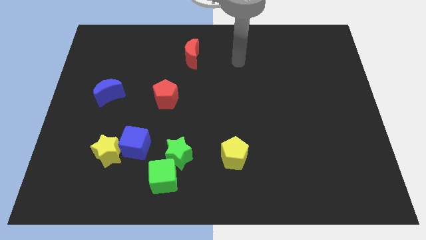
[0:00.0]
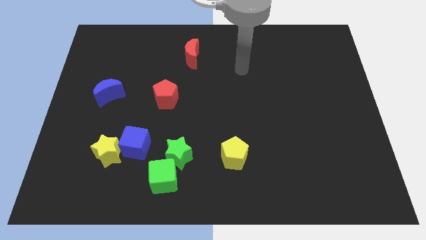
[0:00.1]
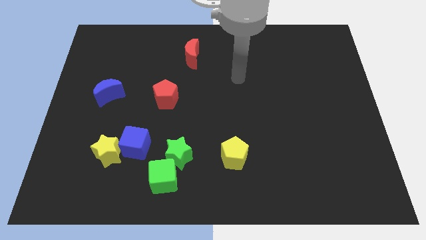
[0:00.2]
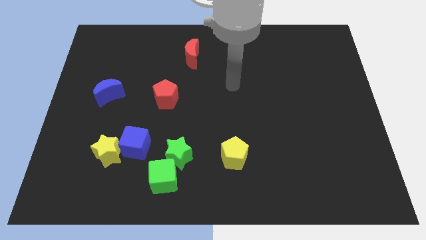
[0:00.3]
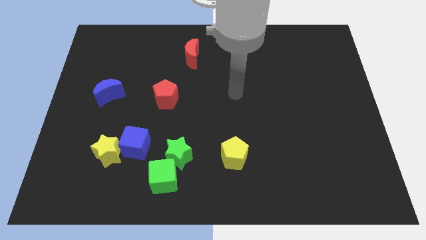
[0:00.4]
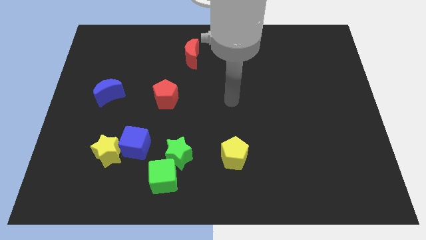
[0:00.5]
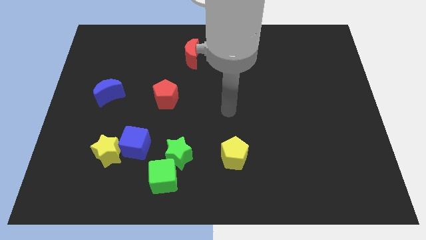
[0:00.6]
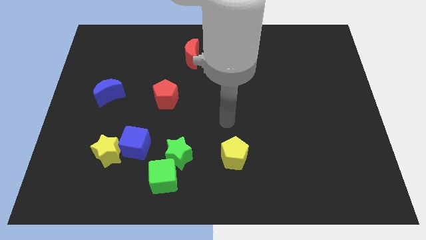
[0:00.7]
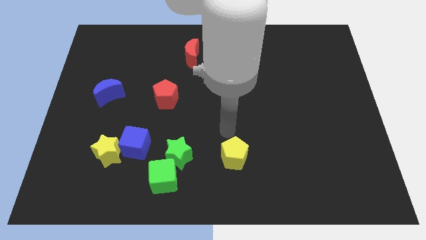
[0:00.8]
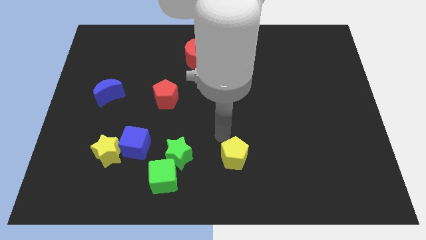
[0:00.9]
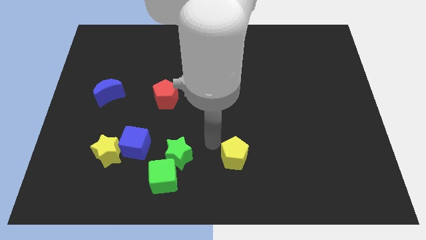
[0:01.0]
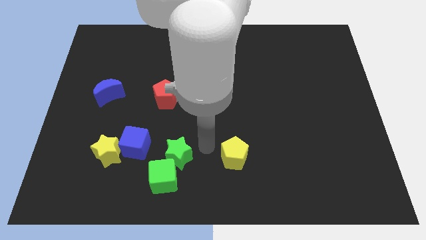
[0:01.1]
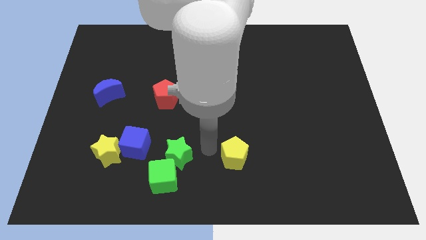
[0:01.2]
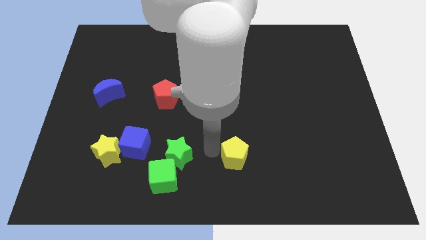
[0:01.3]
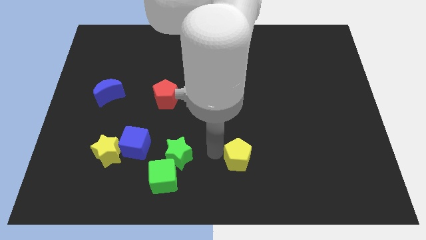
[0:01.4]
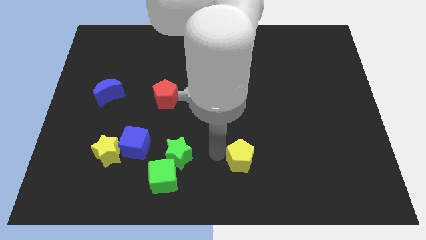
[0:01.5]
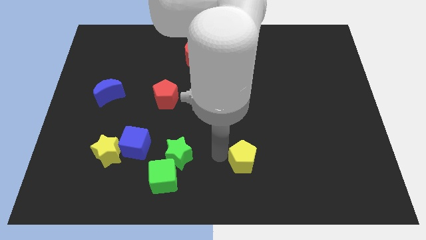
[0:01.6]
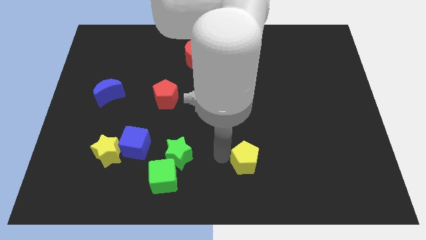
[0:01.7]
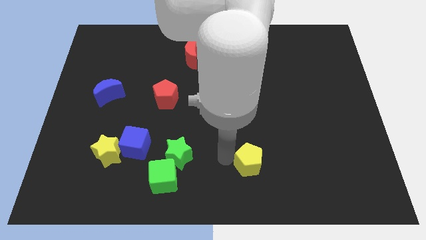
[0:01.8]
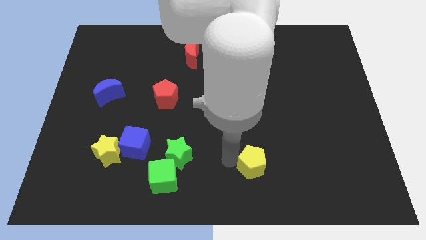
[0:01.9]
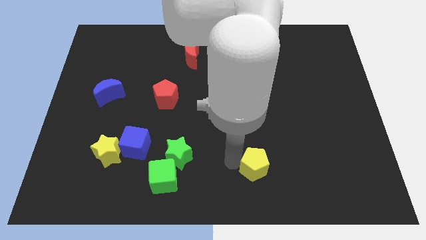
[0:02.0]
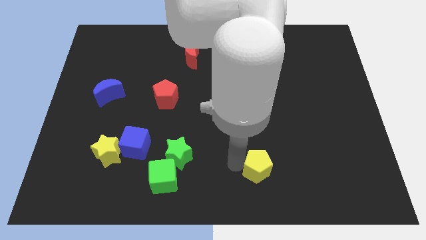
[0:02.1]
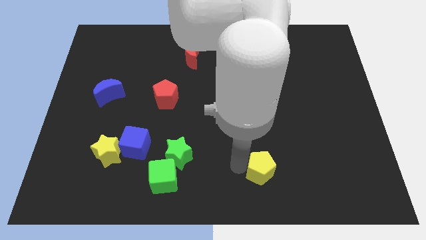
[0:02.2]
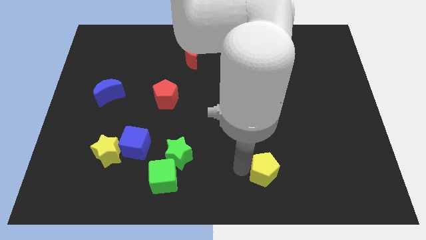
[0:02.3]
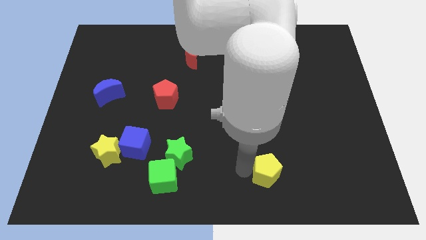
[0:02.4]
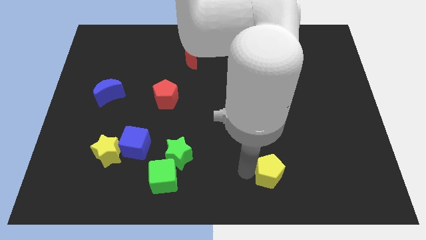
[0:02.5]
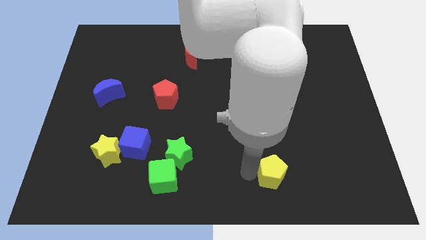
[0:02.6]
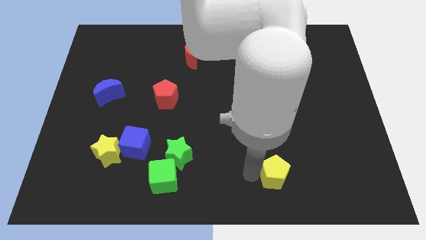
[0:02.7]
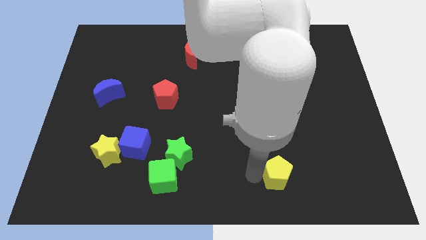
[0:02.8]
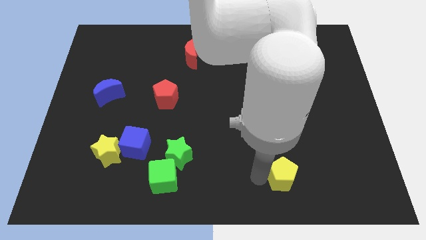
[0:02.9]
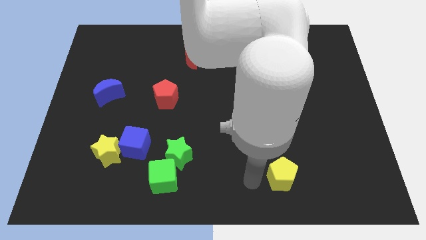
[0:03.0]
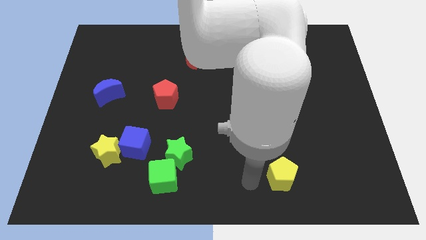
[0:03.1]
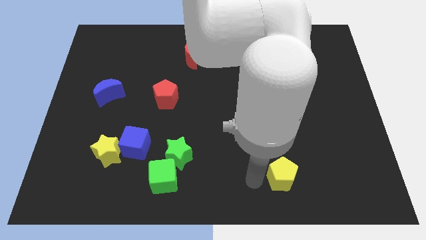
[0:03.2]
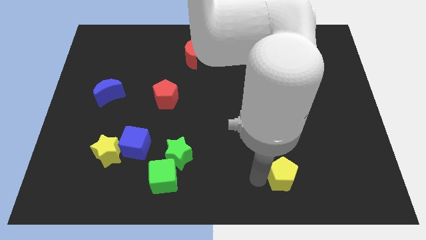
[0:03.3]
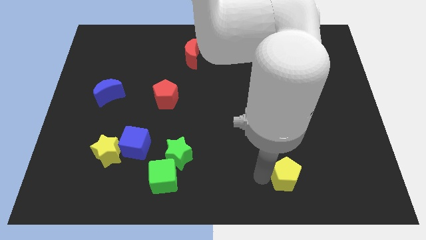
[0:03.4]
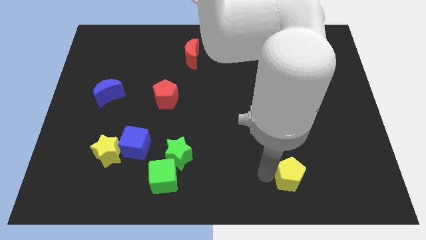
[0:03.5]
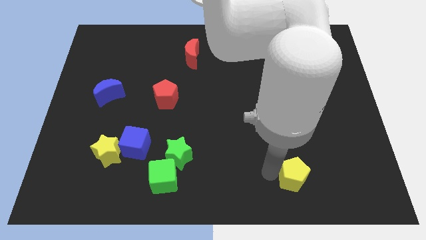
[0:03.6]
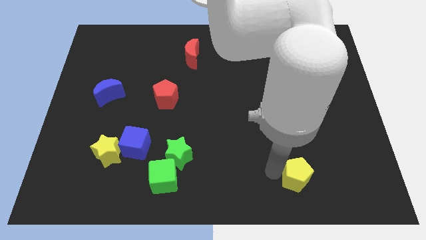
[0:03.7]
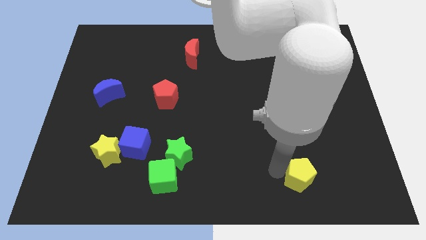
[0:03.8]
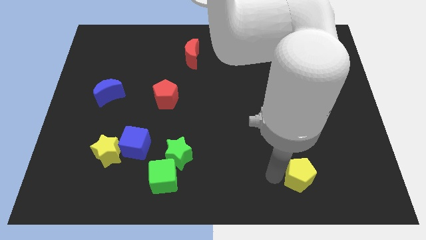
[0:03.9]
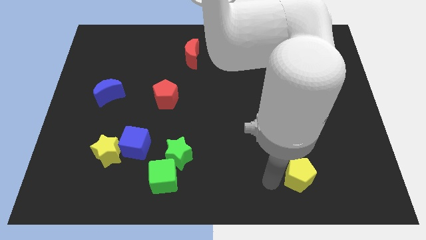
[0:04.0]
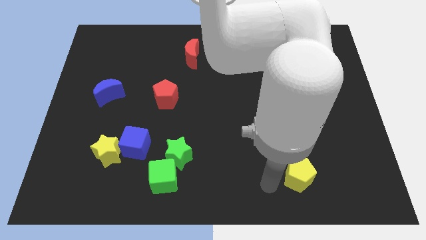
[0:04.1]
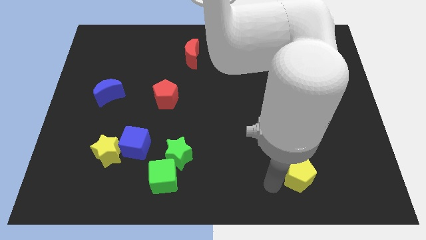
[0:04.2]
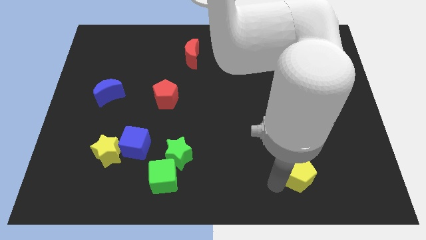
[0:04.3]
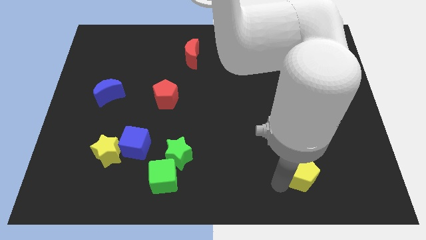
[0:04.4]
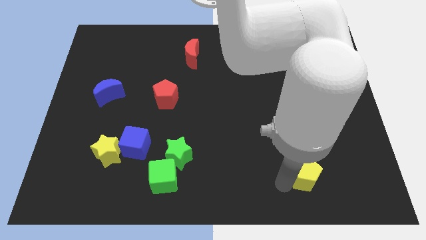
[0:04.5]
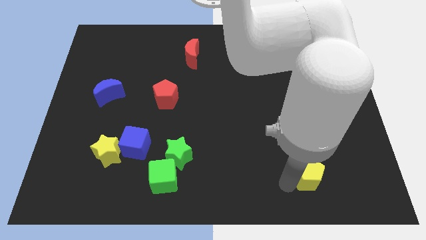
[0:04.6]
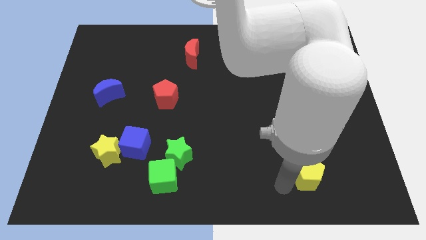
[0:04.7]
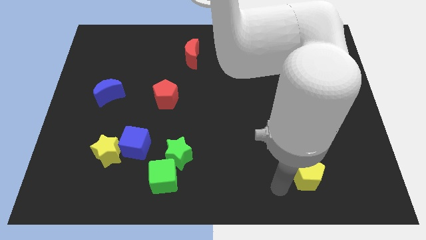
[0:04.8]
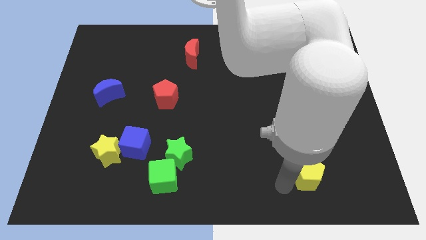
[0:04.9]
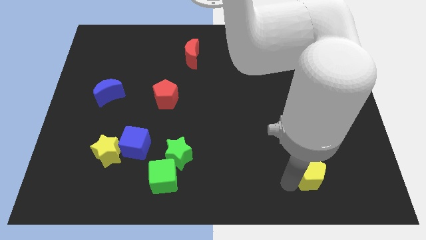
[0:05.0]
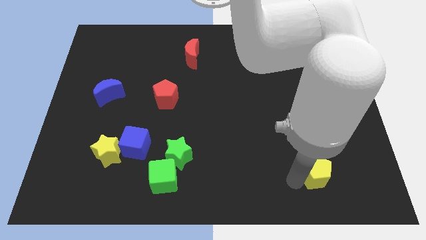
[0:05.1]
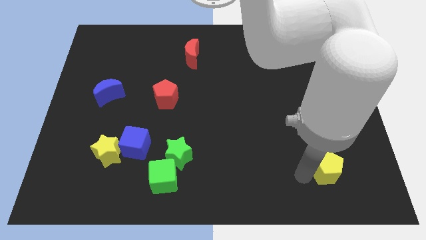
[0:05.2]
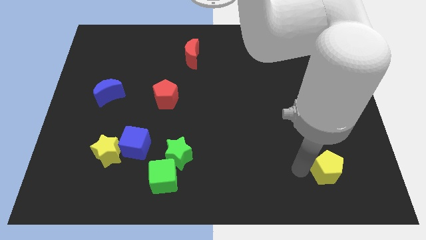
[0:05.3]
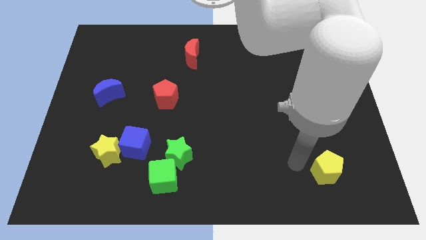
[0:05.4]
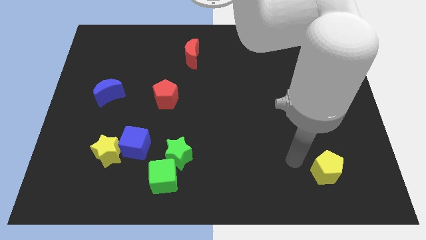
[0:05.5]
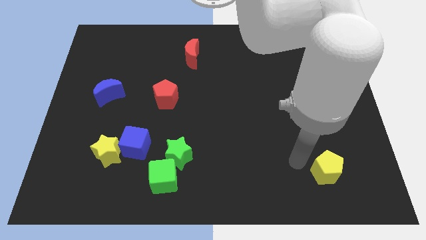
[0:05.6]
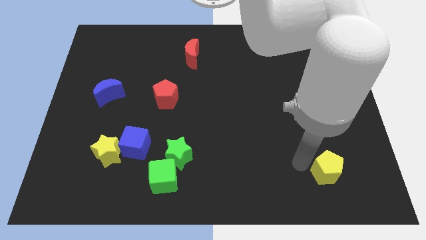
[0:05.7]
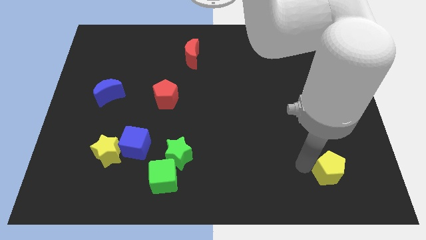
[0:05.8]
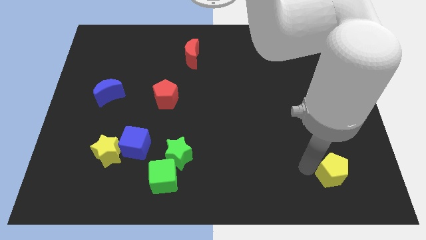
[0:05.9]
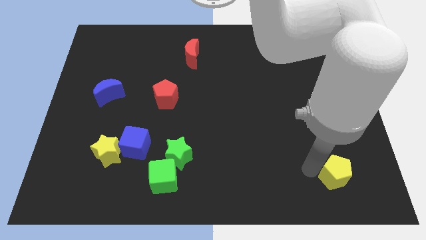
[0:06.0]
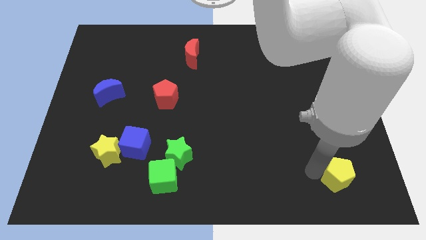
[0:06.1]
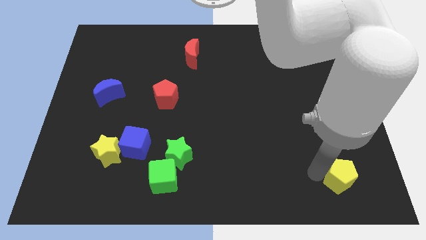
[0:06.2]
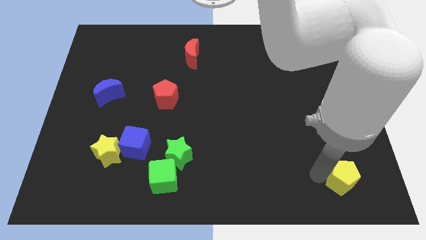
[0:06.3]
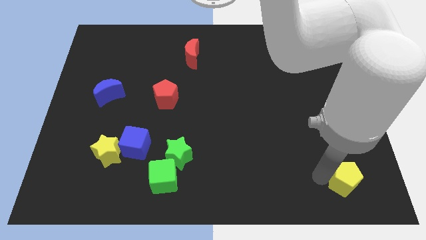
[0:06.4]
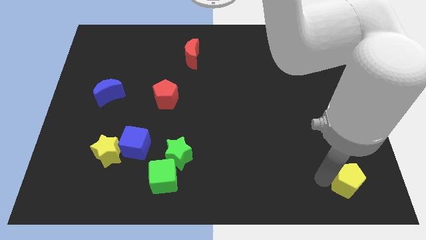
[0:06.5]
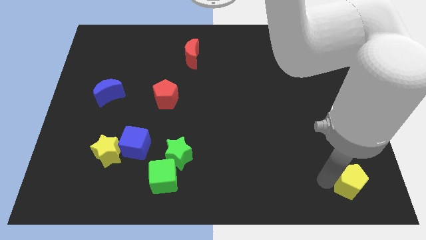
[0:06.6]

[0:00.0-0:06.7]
slide the yellow pentagon to the bottom right of the board
